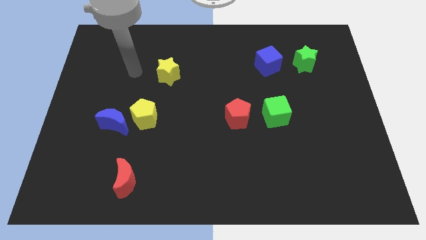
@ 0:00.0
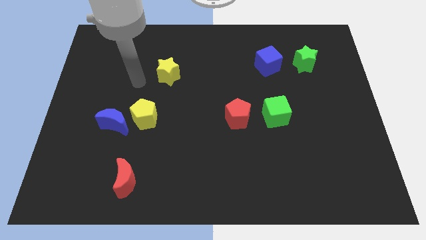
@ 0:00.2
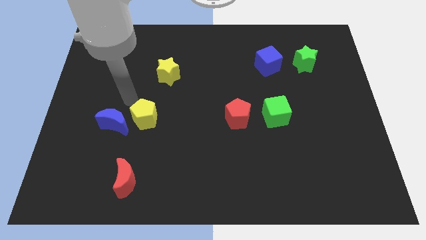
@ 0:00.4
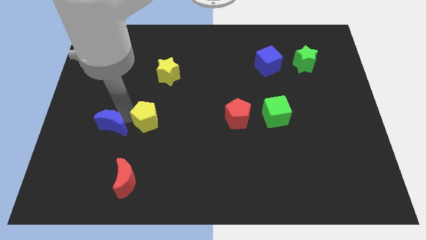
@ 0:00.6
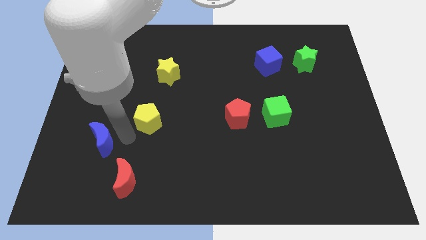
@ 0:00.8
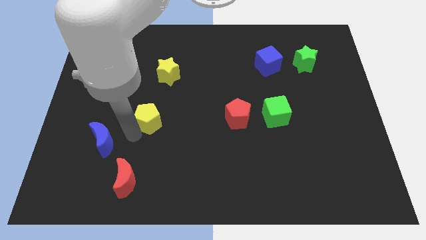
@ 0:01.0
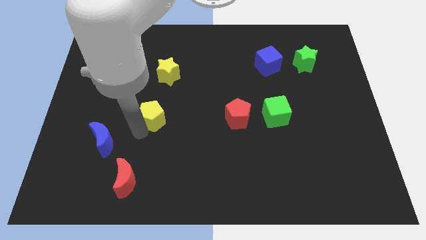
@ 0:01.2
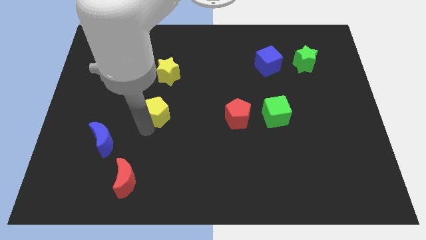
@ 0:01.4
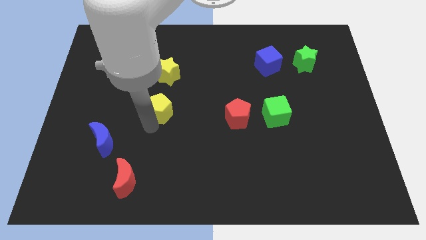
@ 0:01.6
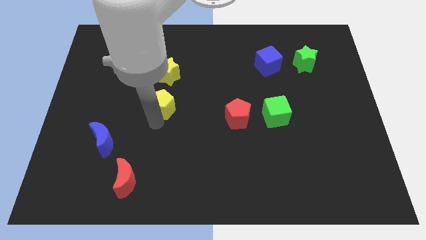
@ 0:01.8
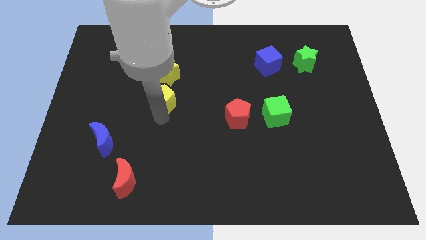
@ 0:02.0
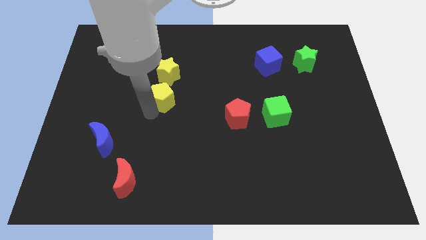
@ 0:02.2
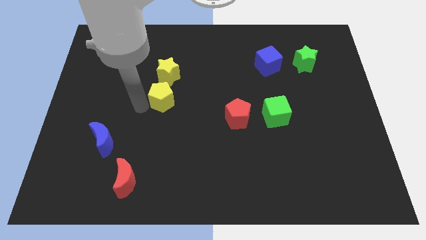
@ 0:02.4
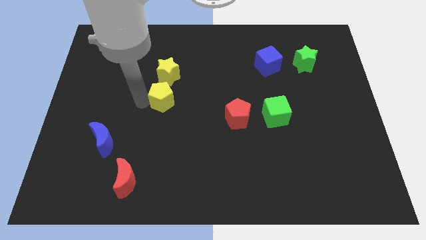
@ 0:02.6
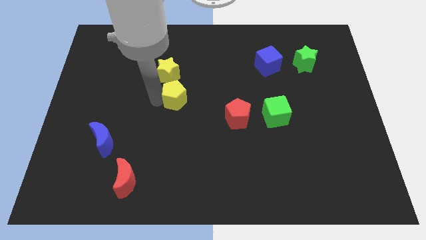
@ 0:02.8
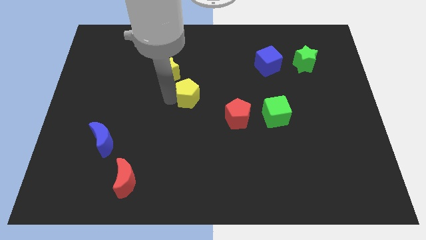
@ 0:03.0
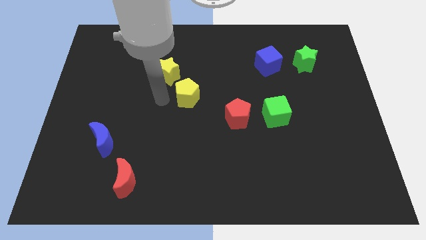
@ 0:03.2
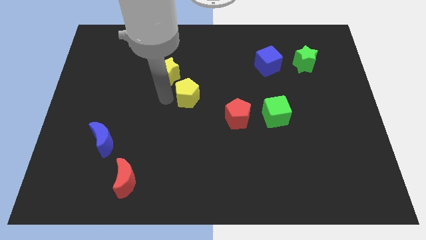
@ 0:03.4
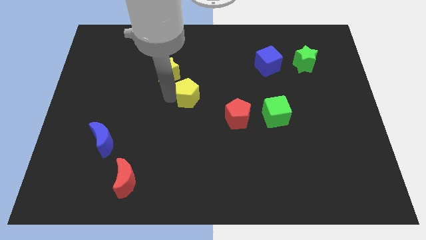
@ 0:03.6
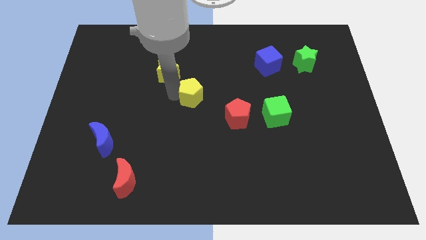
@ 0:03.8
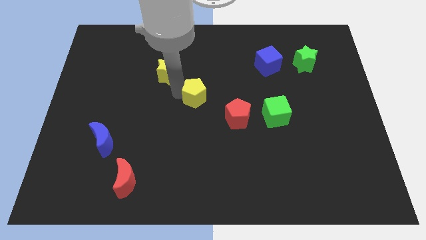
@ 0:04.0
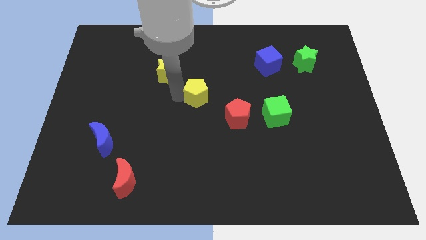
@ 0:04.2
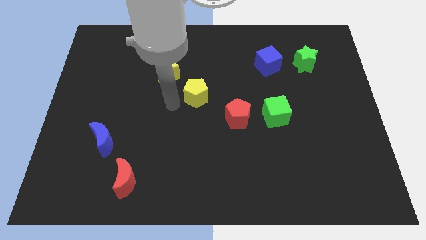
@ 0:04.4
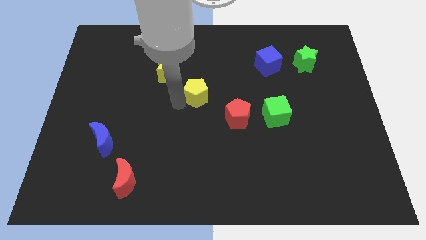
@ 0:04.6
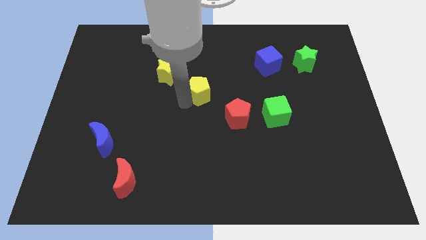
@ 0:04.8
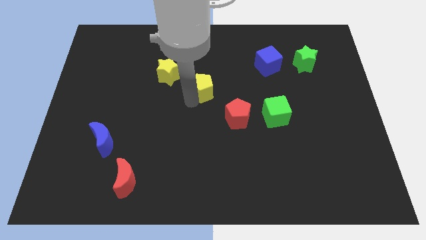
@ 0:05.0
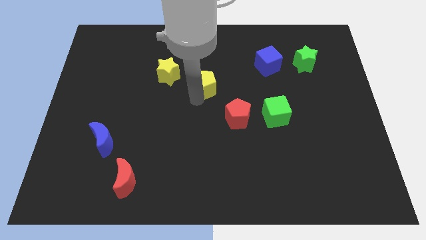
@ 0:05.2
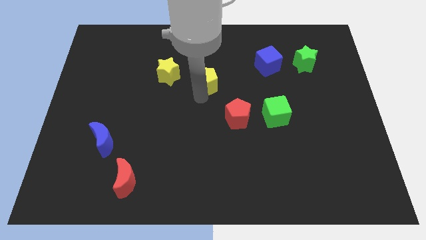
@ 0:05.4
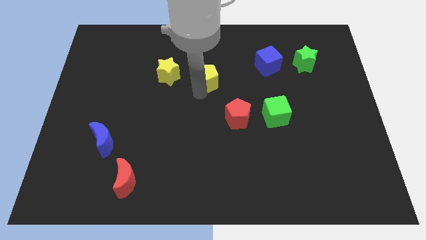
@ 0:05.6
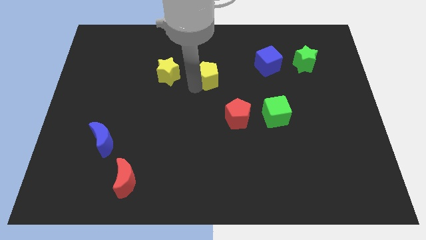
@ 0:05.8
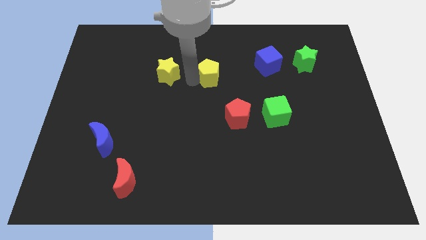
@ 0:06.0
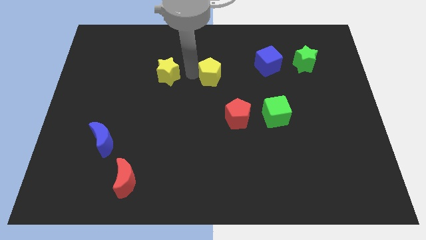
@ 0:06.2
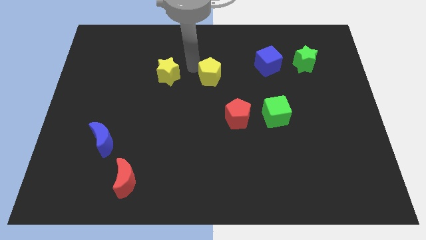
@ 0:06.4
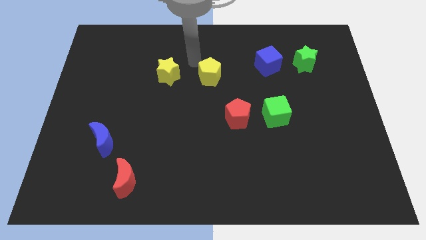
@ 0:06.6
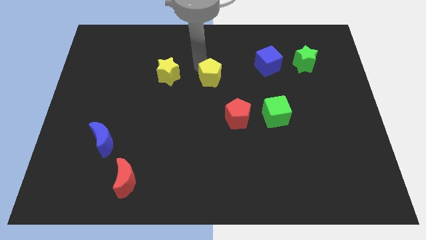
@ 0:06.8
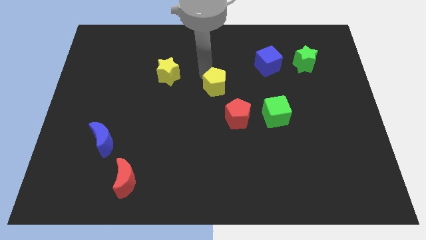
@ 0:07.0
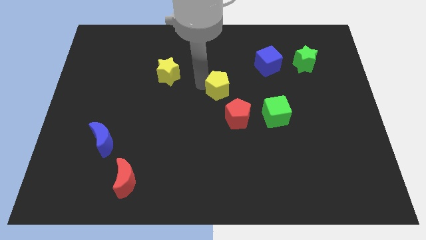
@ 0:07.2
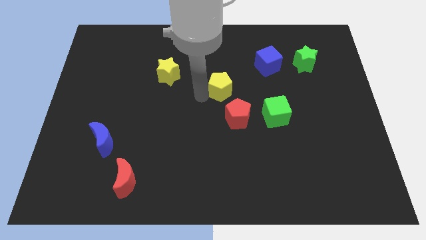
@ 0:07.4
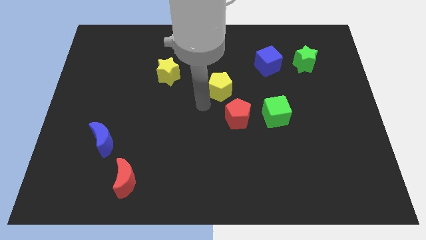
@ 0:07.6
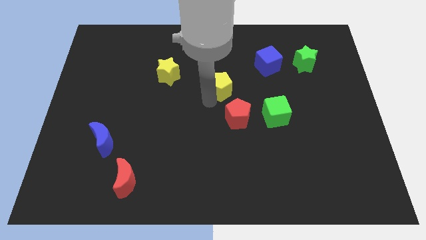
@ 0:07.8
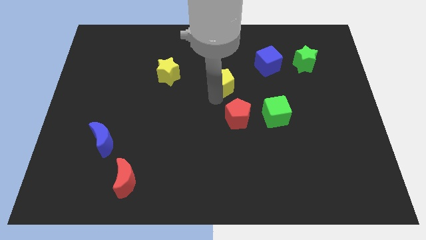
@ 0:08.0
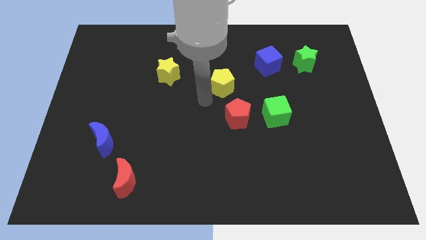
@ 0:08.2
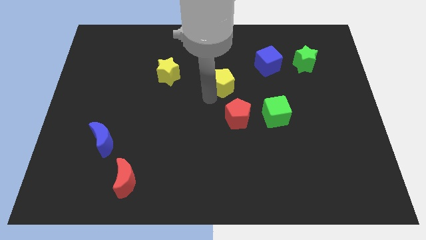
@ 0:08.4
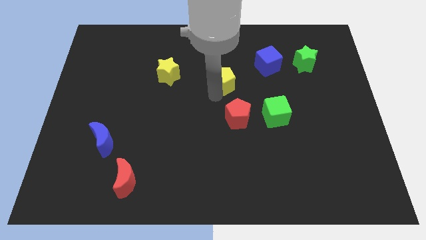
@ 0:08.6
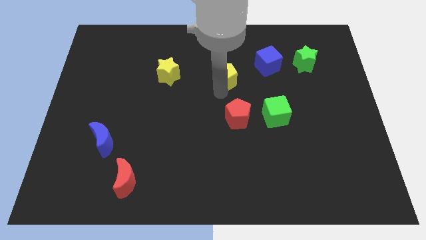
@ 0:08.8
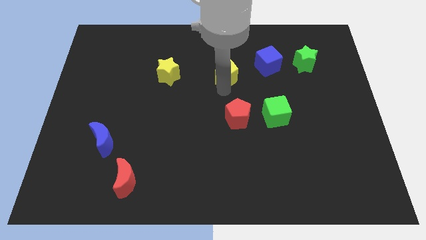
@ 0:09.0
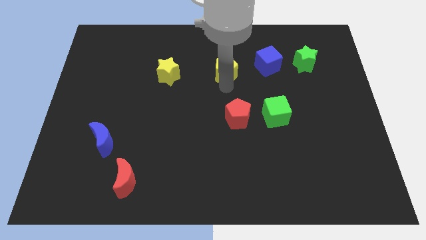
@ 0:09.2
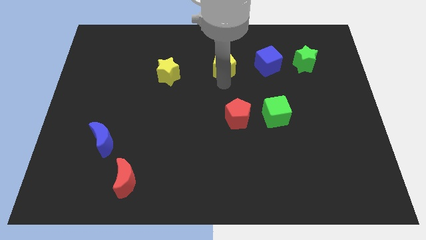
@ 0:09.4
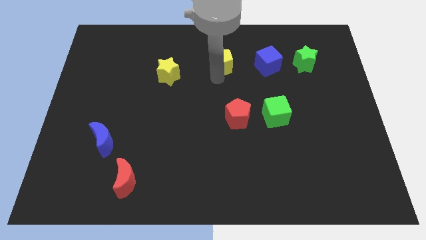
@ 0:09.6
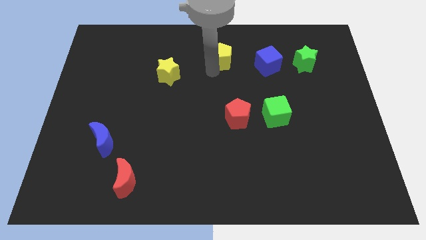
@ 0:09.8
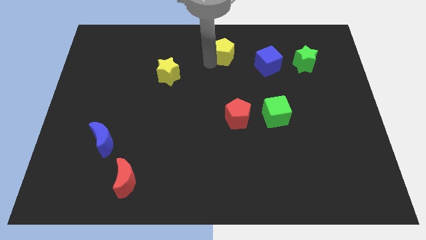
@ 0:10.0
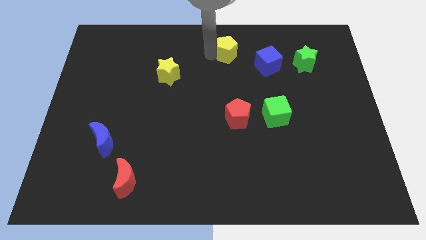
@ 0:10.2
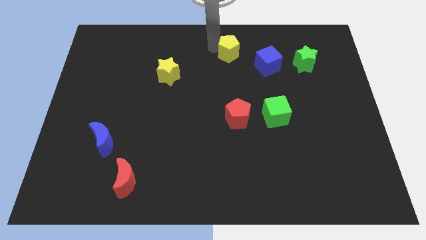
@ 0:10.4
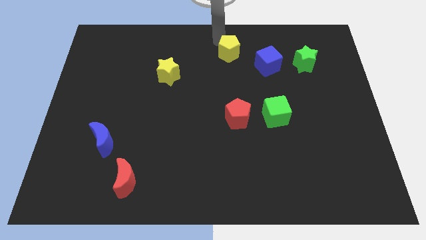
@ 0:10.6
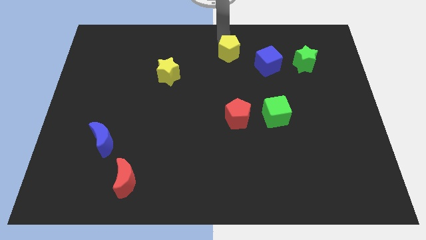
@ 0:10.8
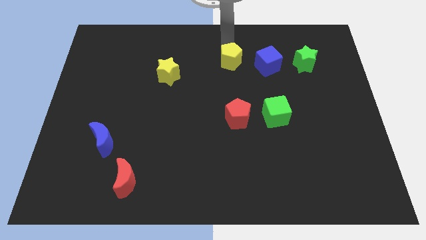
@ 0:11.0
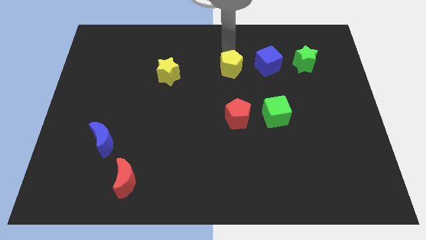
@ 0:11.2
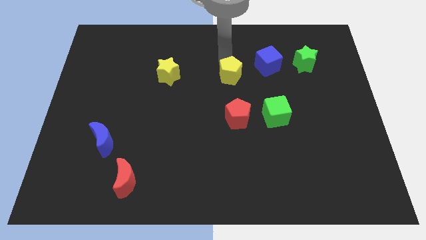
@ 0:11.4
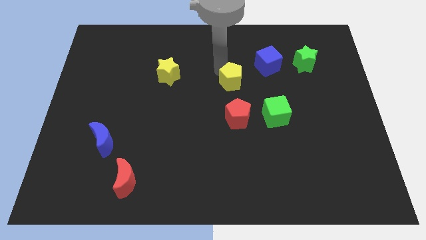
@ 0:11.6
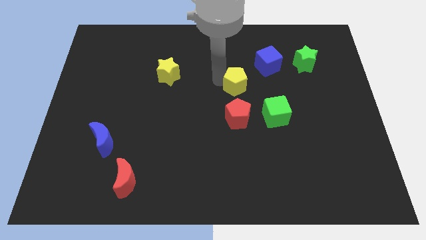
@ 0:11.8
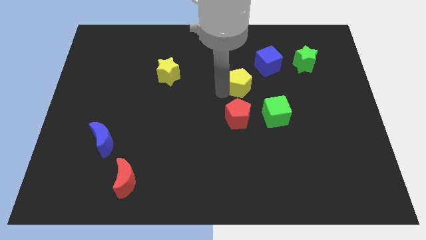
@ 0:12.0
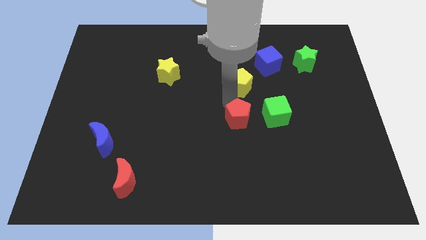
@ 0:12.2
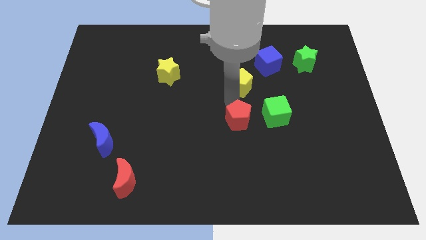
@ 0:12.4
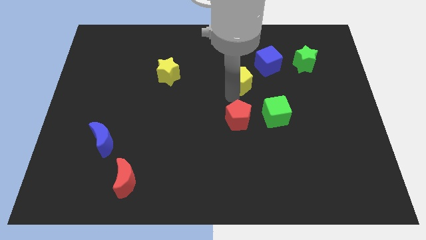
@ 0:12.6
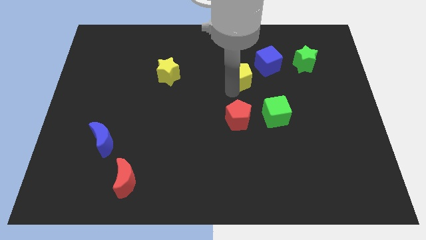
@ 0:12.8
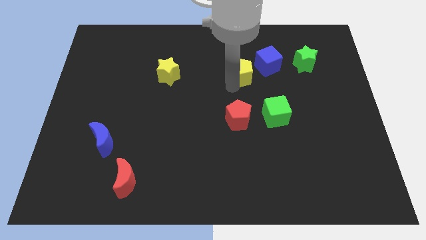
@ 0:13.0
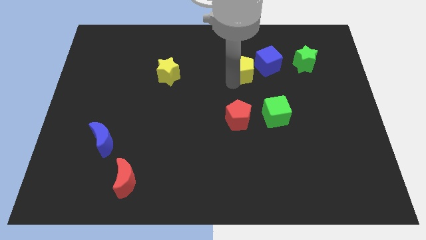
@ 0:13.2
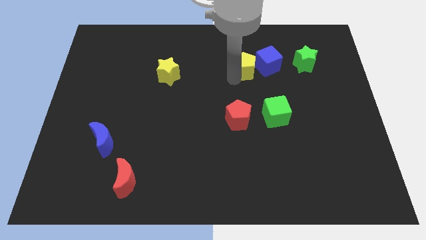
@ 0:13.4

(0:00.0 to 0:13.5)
slide the yellow pentagon left of the green star

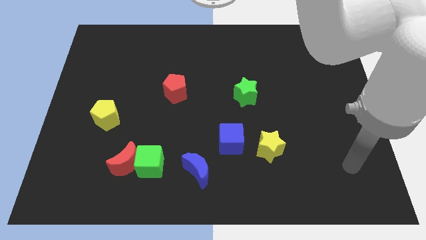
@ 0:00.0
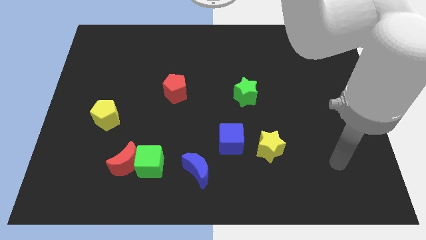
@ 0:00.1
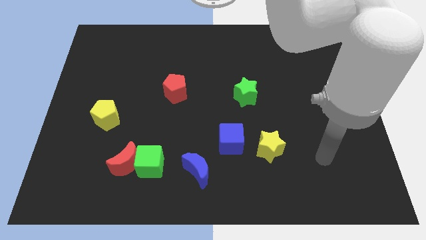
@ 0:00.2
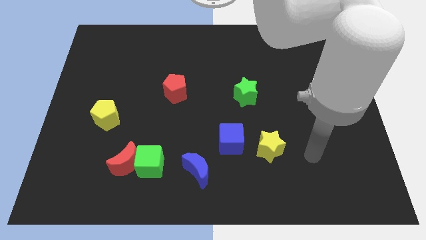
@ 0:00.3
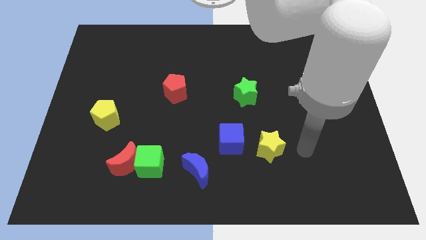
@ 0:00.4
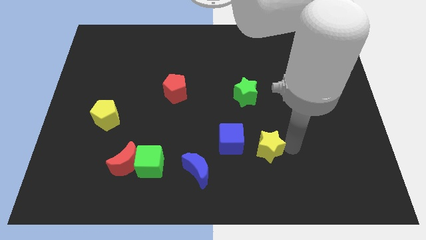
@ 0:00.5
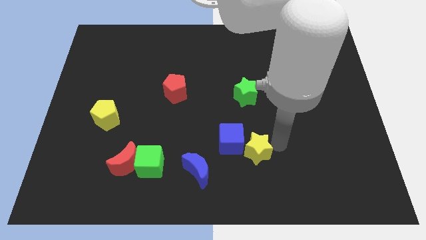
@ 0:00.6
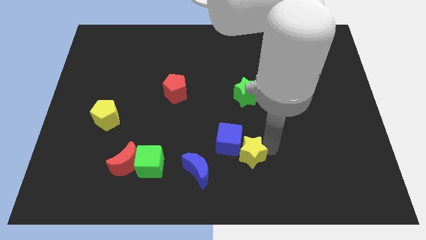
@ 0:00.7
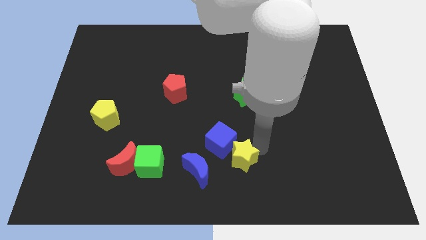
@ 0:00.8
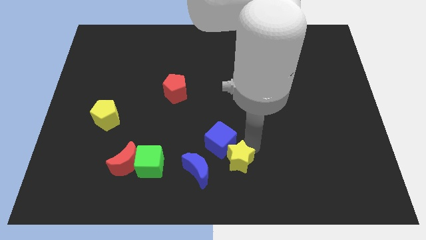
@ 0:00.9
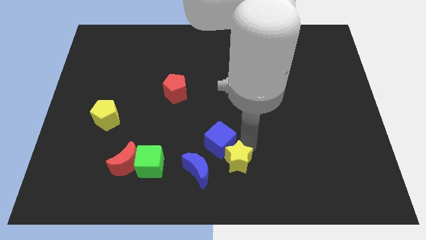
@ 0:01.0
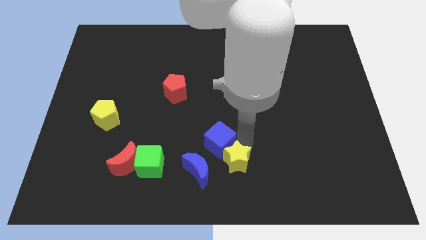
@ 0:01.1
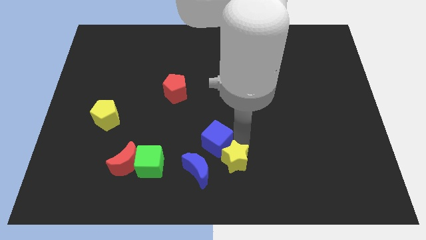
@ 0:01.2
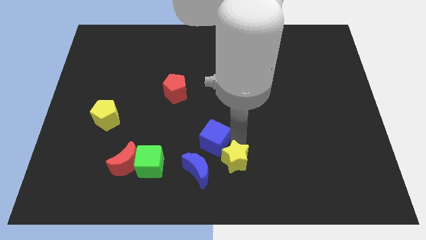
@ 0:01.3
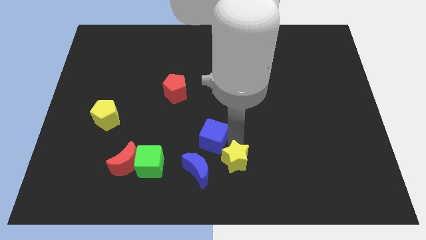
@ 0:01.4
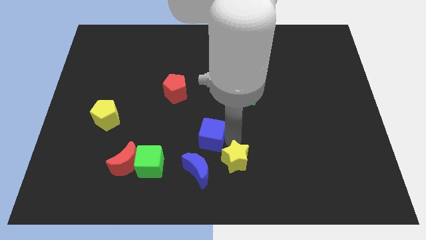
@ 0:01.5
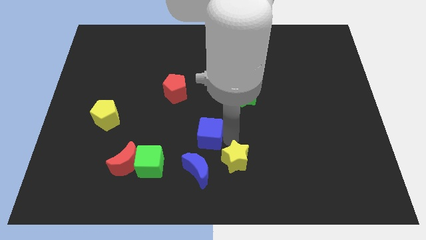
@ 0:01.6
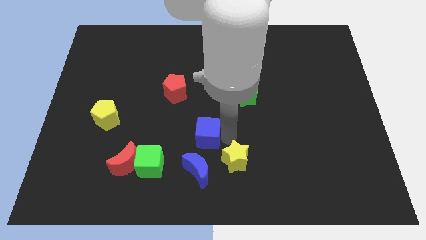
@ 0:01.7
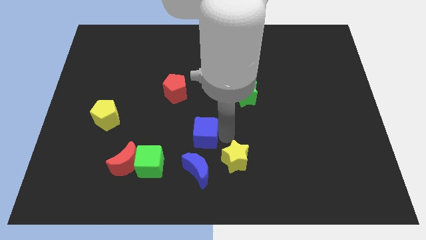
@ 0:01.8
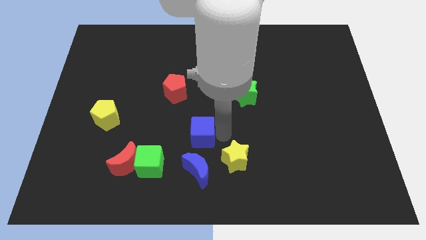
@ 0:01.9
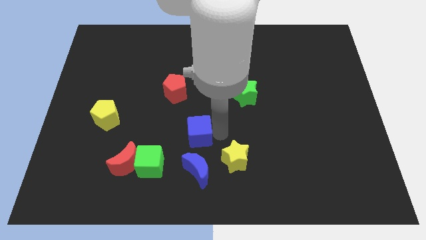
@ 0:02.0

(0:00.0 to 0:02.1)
slide the blue cube diagonally up and to the right of the green cube
